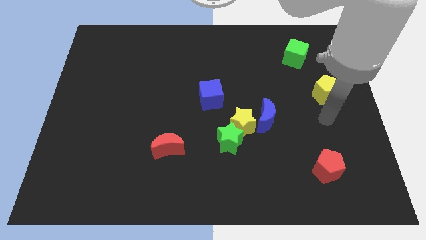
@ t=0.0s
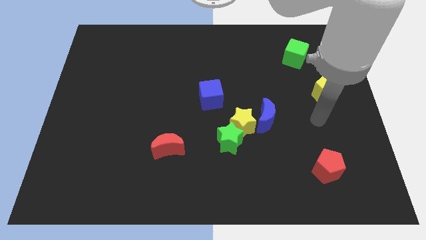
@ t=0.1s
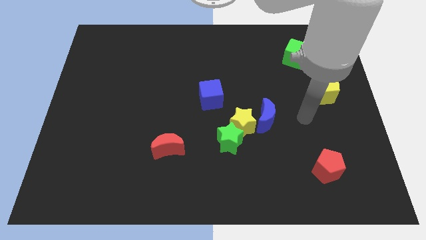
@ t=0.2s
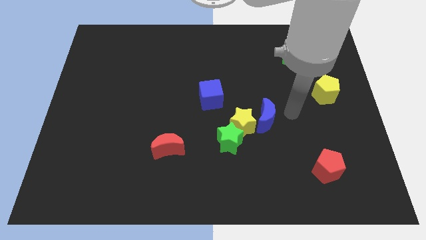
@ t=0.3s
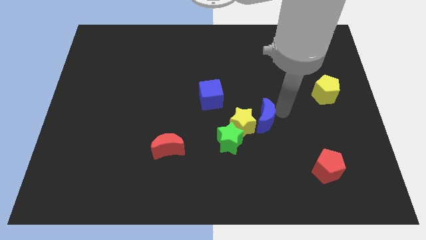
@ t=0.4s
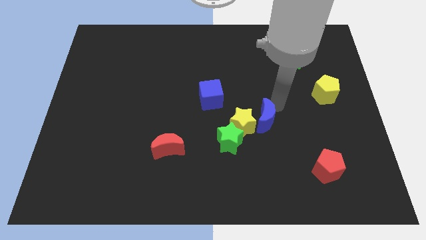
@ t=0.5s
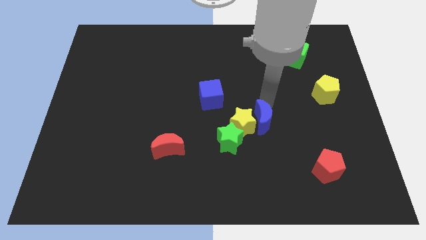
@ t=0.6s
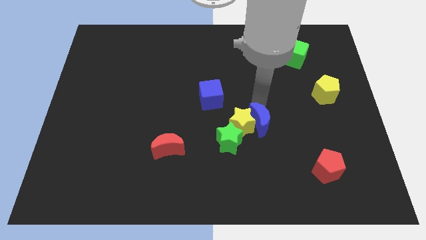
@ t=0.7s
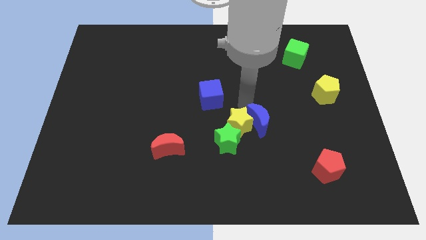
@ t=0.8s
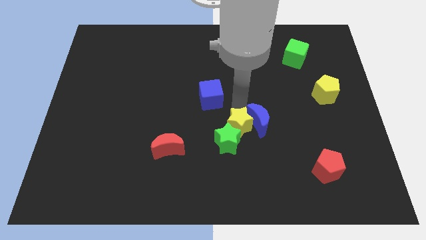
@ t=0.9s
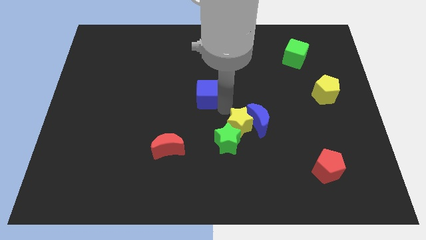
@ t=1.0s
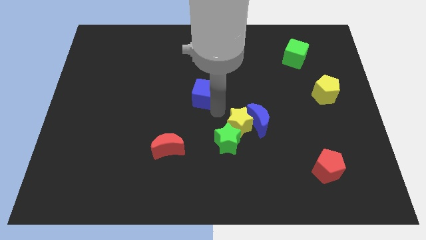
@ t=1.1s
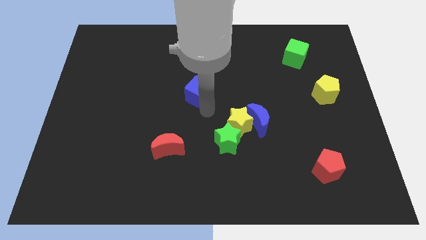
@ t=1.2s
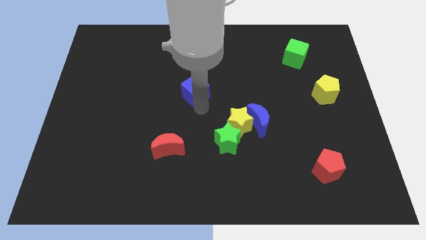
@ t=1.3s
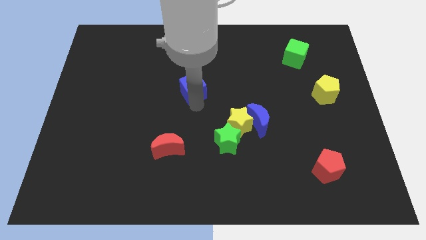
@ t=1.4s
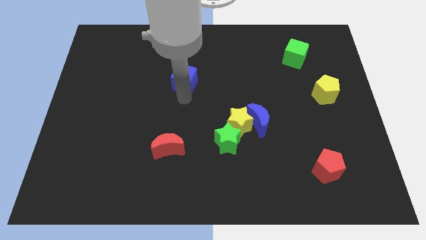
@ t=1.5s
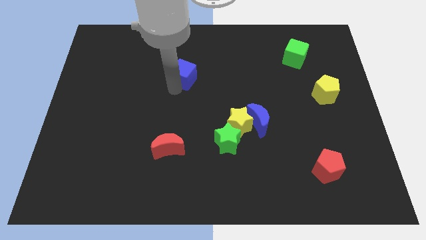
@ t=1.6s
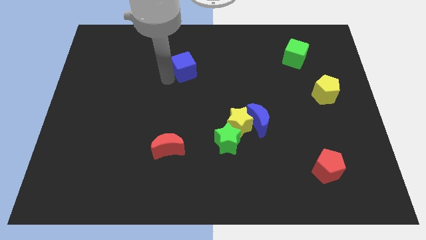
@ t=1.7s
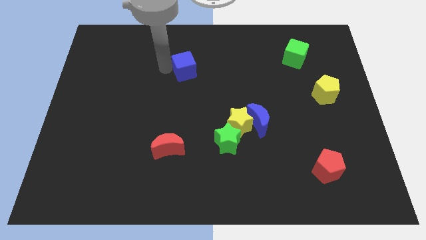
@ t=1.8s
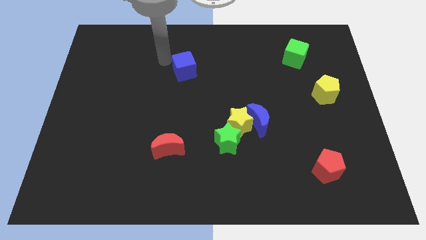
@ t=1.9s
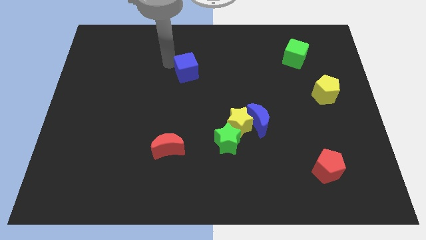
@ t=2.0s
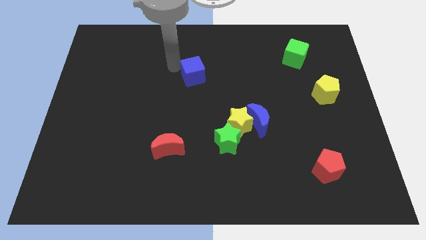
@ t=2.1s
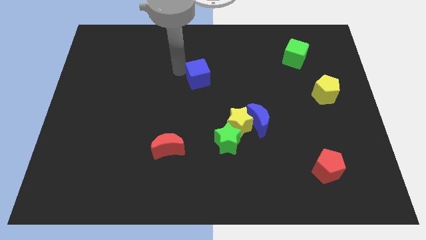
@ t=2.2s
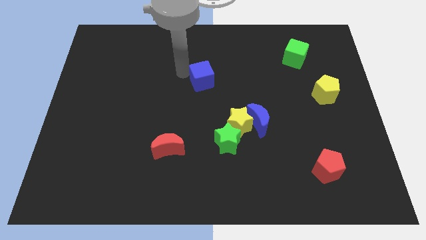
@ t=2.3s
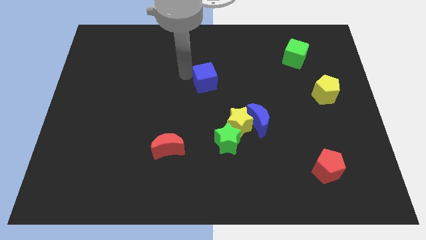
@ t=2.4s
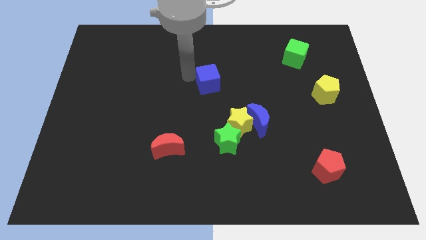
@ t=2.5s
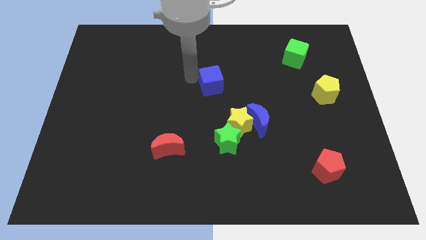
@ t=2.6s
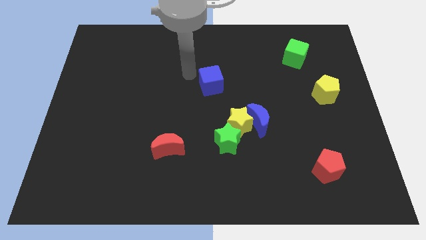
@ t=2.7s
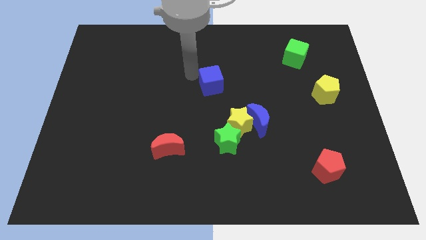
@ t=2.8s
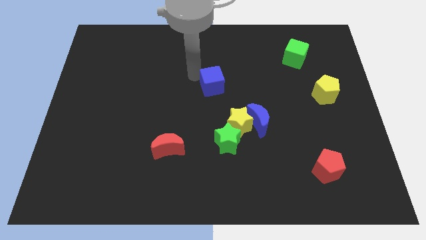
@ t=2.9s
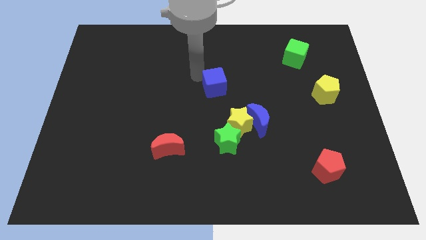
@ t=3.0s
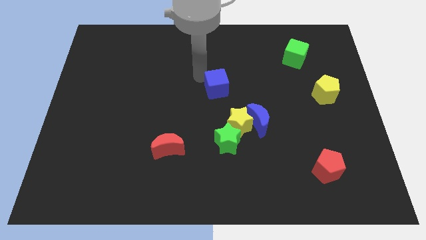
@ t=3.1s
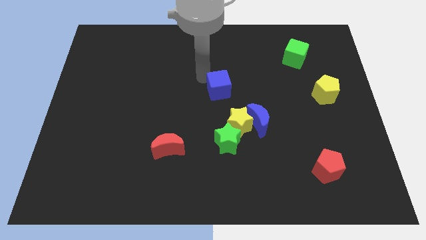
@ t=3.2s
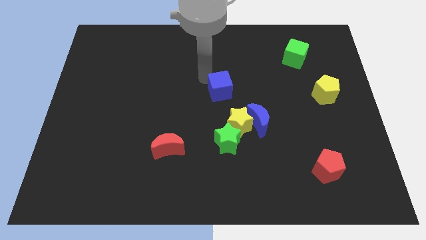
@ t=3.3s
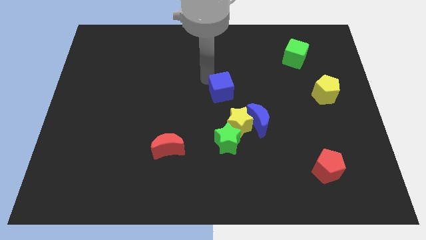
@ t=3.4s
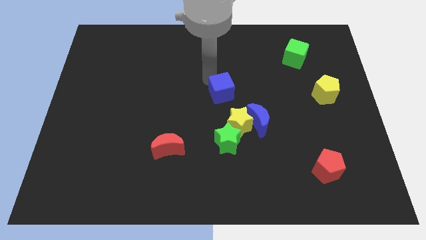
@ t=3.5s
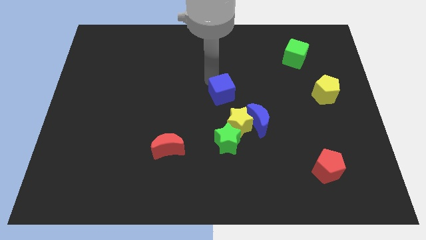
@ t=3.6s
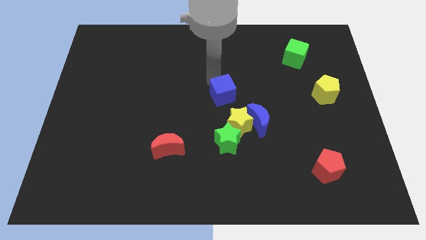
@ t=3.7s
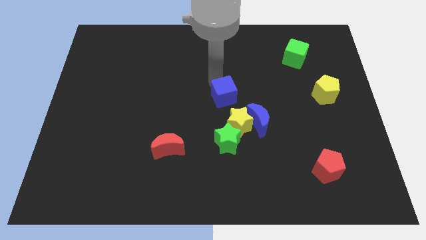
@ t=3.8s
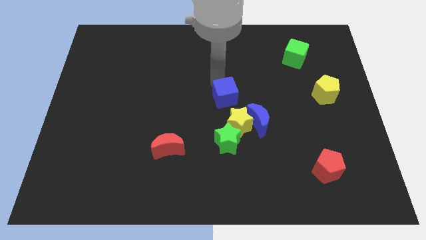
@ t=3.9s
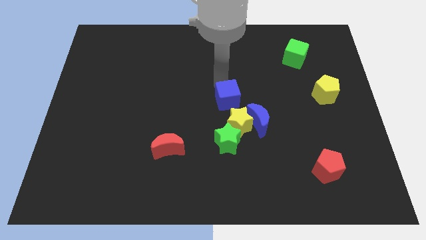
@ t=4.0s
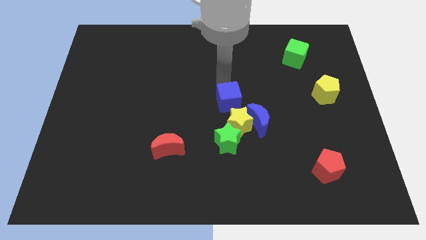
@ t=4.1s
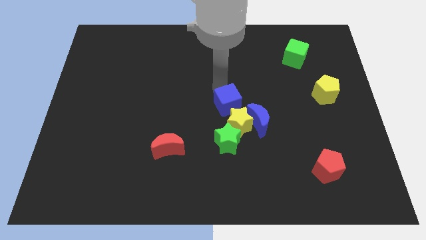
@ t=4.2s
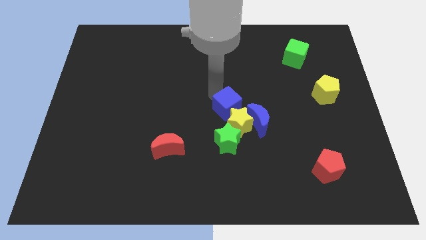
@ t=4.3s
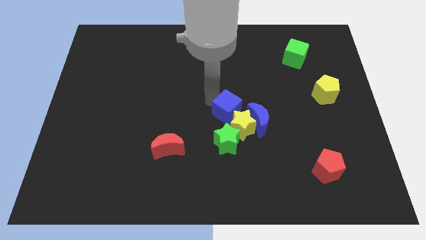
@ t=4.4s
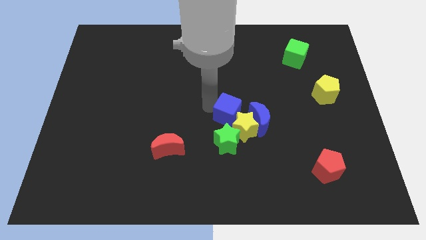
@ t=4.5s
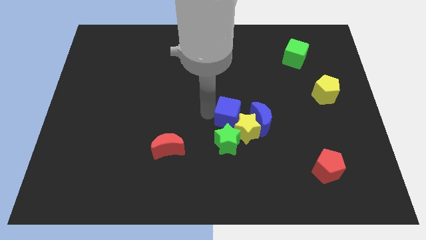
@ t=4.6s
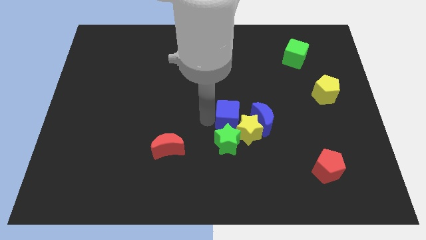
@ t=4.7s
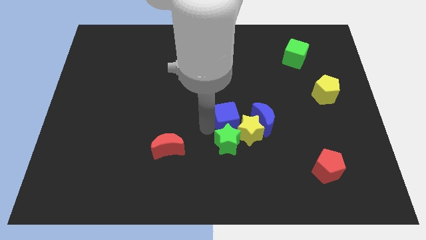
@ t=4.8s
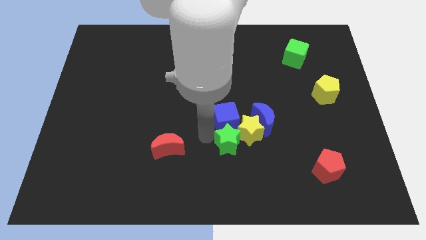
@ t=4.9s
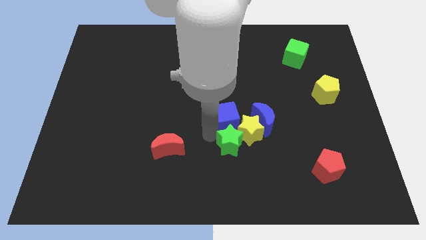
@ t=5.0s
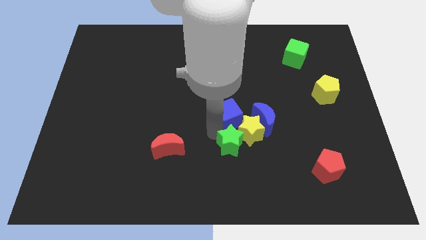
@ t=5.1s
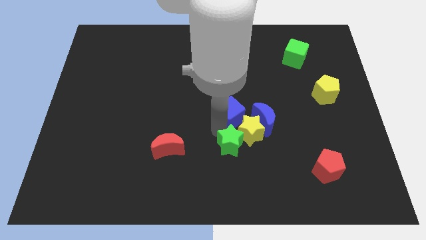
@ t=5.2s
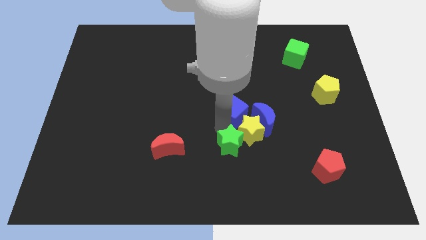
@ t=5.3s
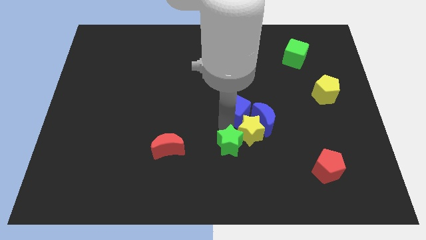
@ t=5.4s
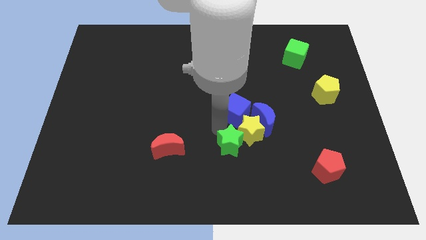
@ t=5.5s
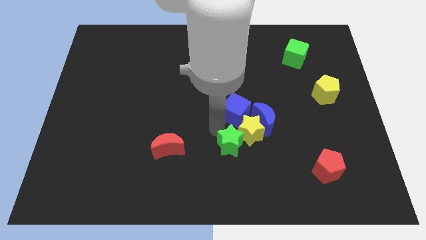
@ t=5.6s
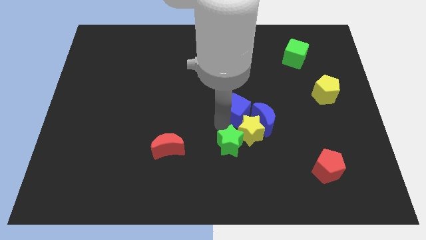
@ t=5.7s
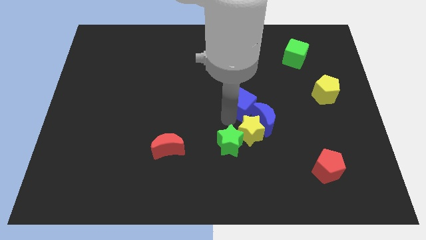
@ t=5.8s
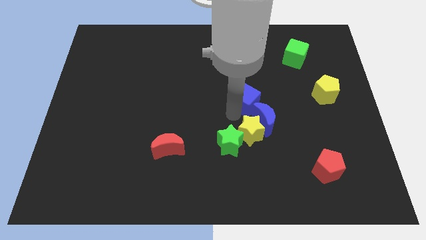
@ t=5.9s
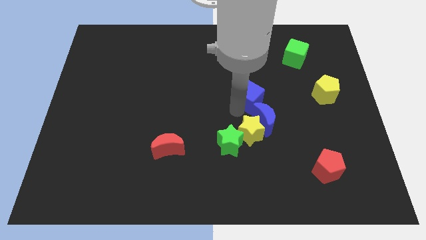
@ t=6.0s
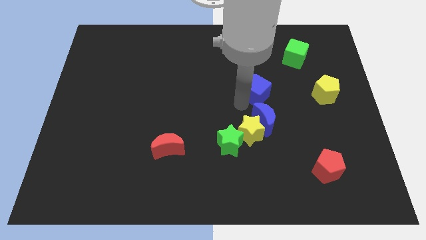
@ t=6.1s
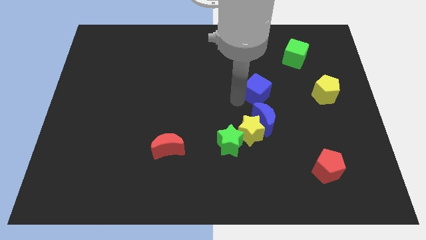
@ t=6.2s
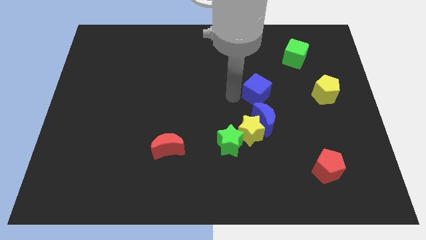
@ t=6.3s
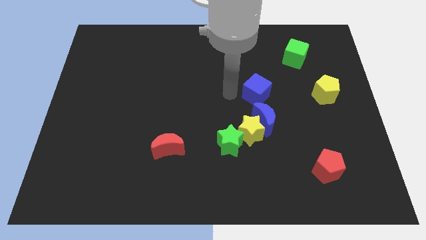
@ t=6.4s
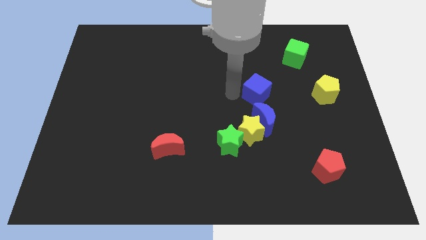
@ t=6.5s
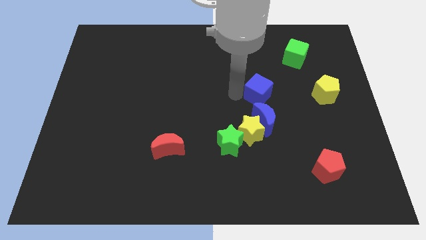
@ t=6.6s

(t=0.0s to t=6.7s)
put the blue cube just left of the yellow pentagon
